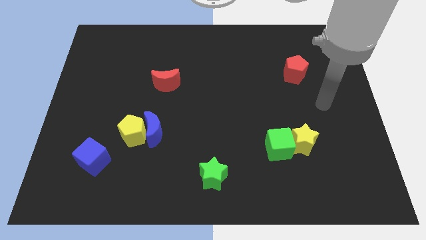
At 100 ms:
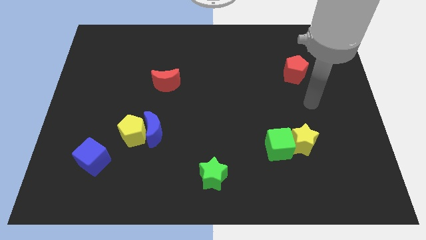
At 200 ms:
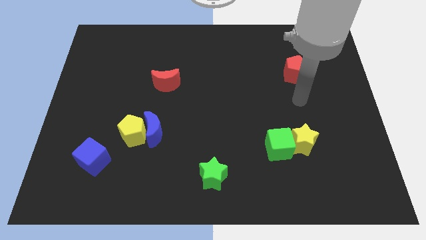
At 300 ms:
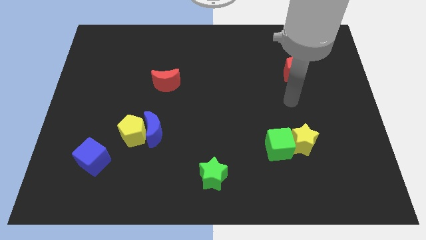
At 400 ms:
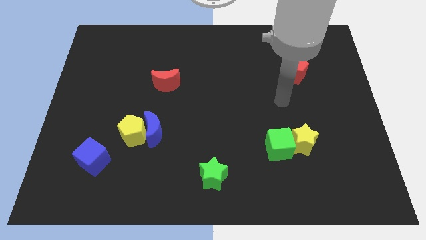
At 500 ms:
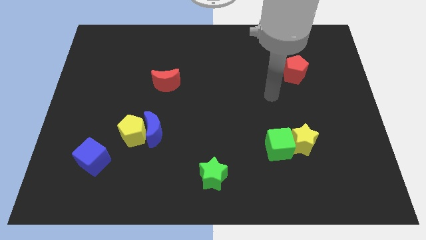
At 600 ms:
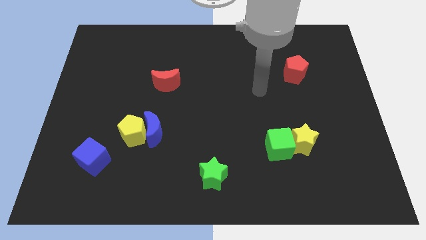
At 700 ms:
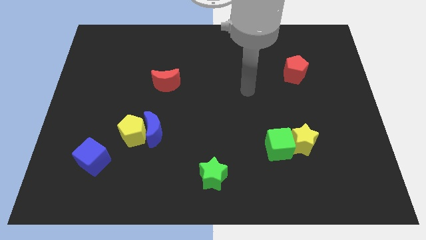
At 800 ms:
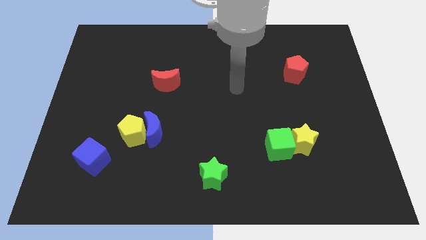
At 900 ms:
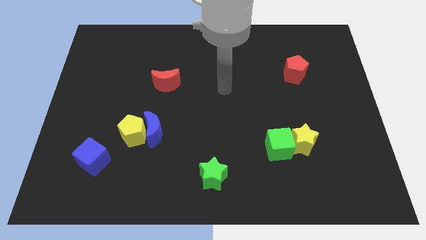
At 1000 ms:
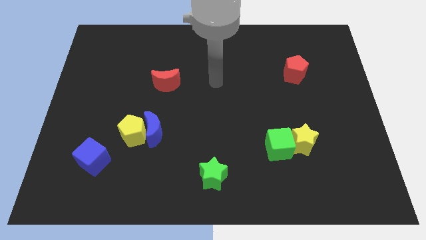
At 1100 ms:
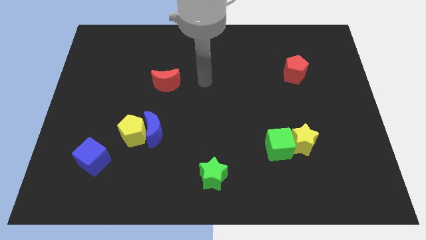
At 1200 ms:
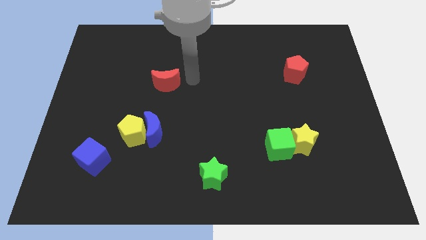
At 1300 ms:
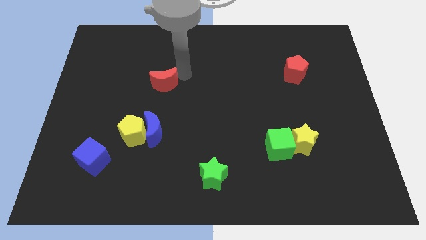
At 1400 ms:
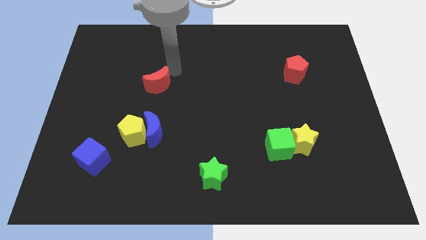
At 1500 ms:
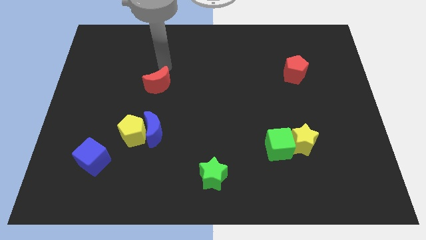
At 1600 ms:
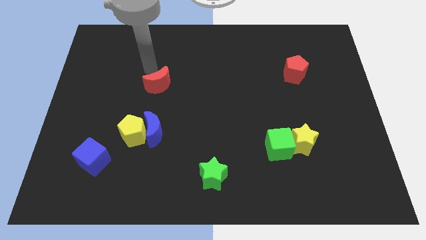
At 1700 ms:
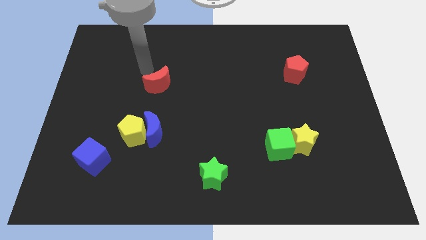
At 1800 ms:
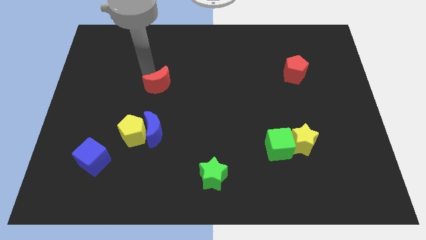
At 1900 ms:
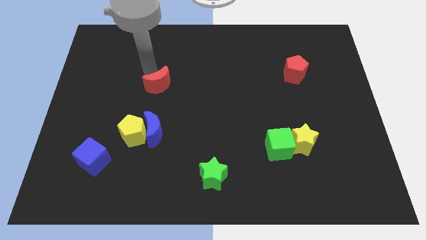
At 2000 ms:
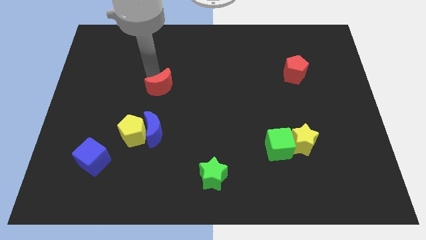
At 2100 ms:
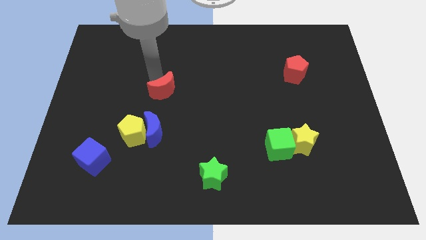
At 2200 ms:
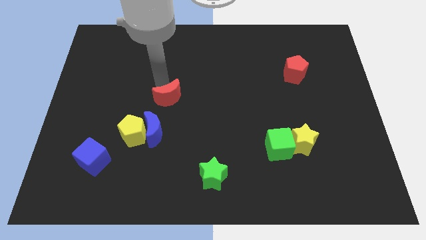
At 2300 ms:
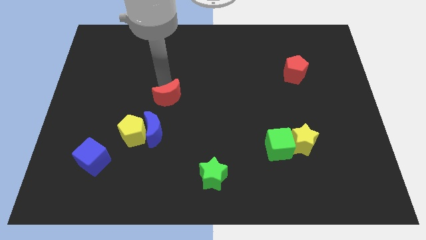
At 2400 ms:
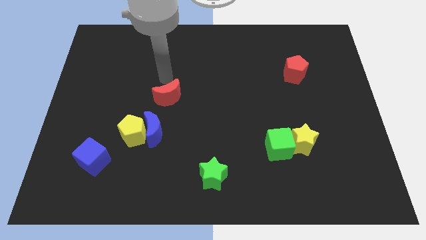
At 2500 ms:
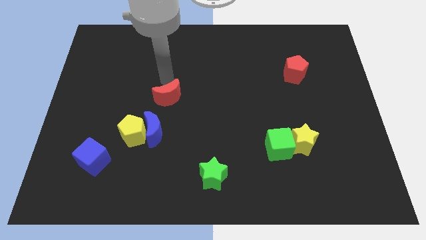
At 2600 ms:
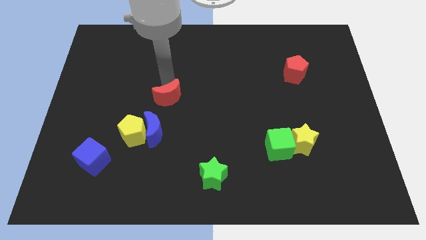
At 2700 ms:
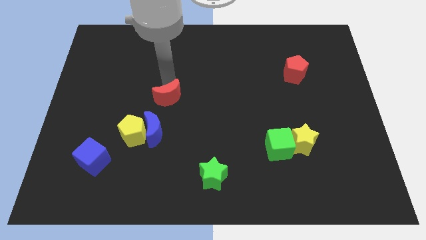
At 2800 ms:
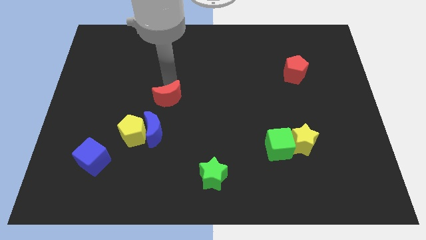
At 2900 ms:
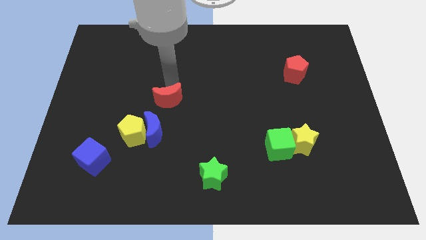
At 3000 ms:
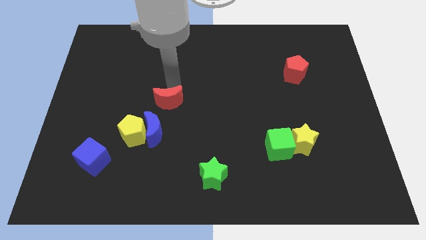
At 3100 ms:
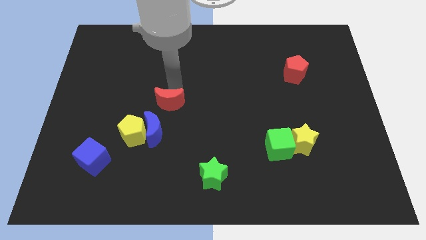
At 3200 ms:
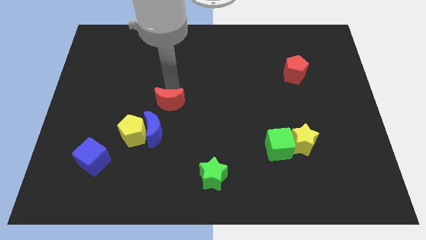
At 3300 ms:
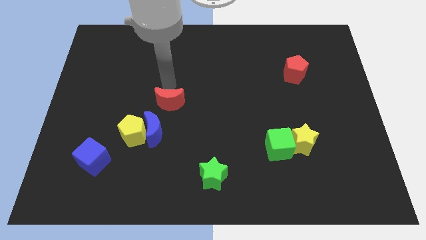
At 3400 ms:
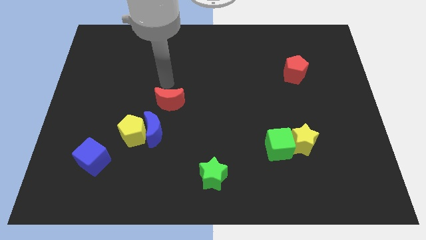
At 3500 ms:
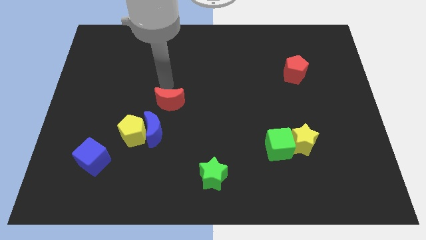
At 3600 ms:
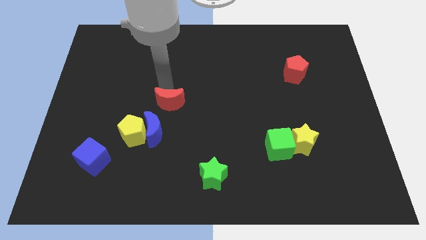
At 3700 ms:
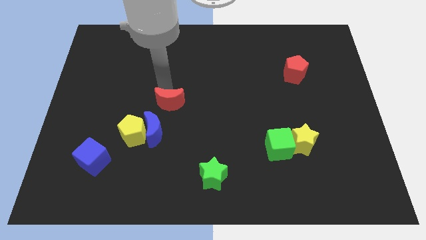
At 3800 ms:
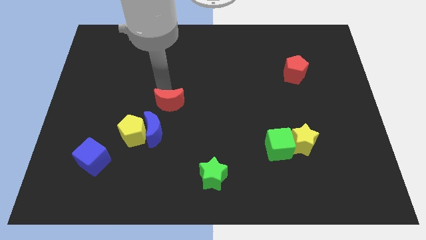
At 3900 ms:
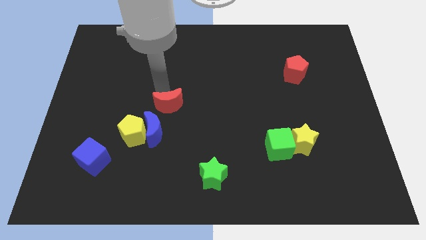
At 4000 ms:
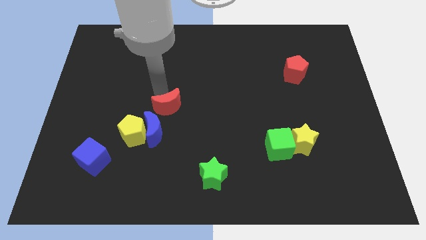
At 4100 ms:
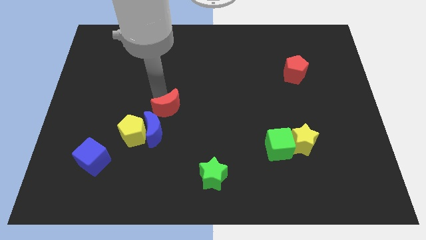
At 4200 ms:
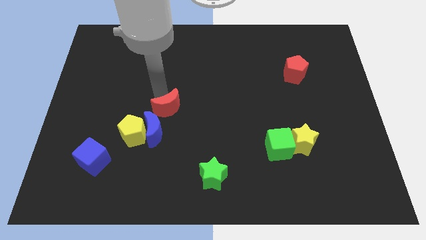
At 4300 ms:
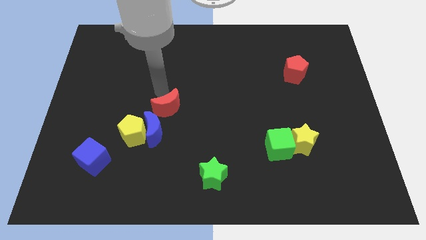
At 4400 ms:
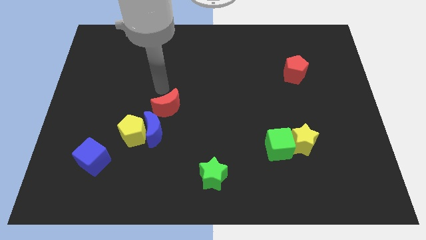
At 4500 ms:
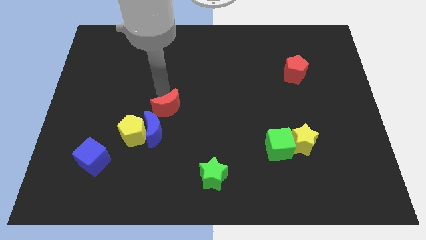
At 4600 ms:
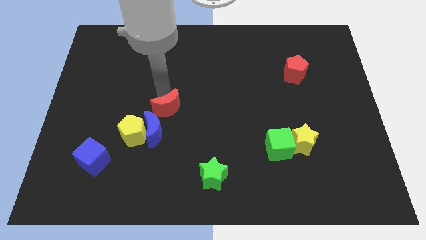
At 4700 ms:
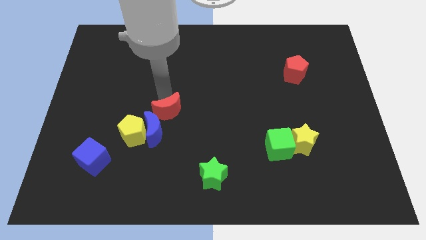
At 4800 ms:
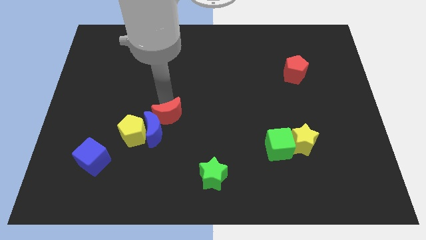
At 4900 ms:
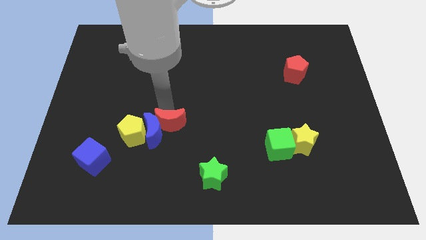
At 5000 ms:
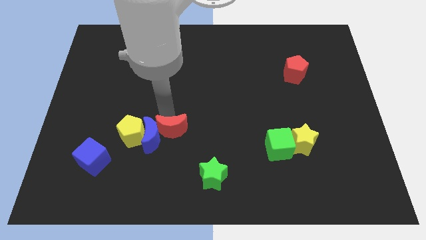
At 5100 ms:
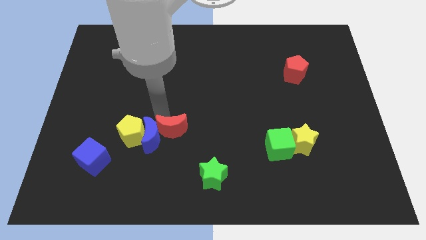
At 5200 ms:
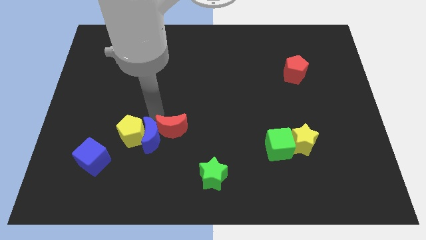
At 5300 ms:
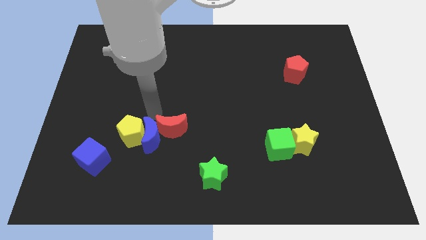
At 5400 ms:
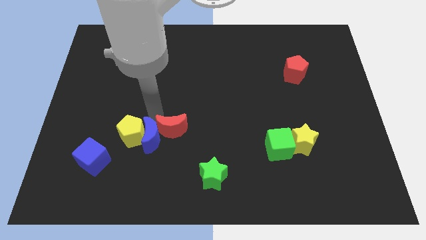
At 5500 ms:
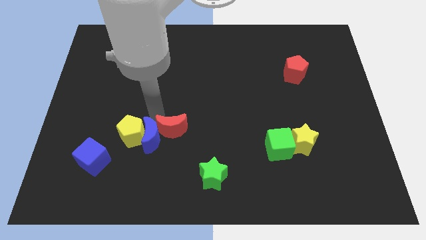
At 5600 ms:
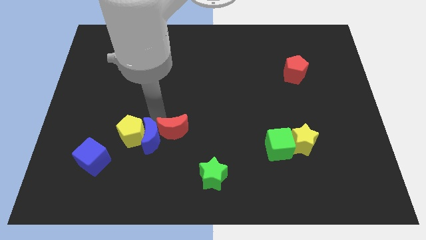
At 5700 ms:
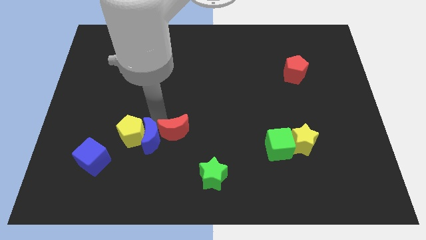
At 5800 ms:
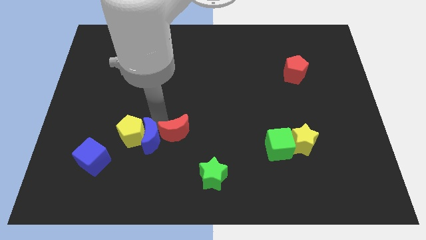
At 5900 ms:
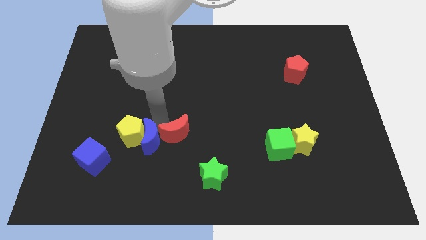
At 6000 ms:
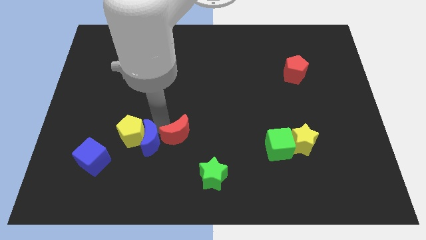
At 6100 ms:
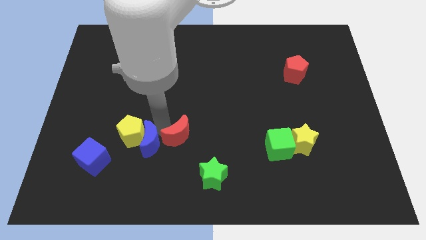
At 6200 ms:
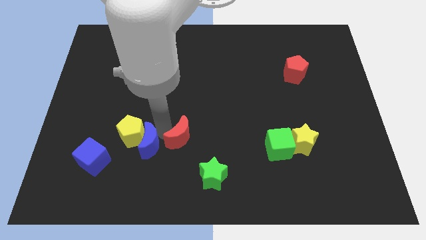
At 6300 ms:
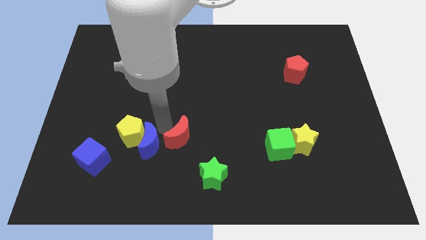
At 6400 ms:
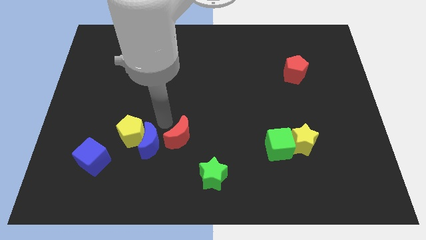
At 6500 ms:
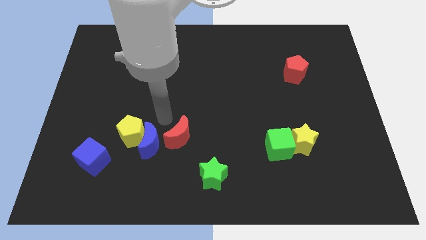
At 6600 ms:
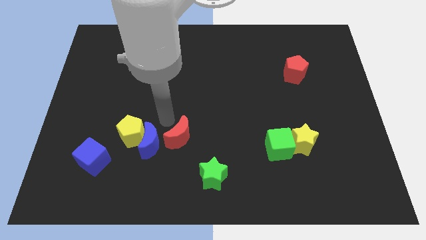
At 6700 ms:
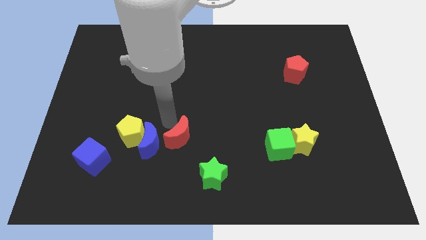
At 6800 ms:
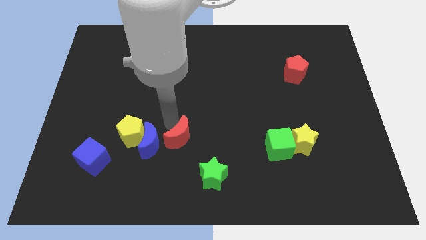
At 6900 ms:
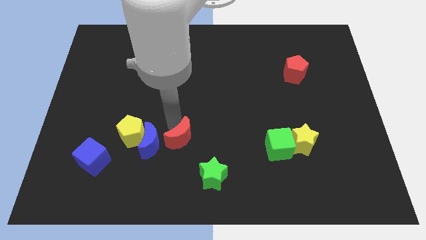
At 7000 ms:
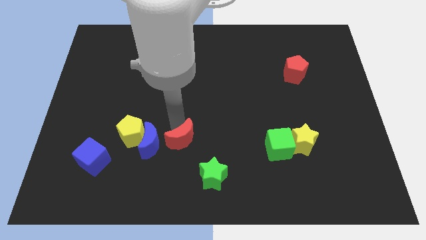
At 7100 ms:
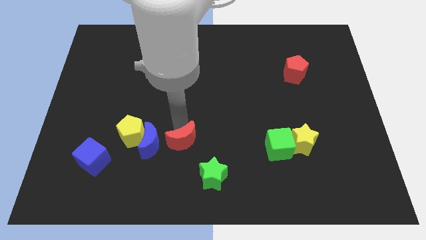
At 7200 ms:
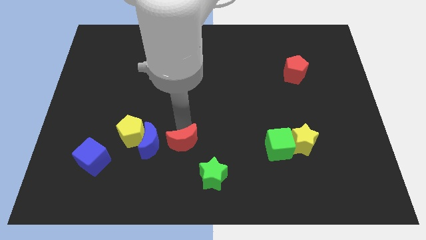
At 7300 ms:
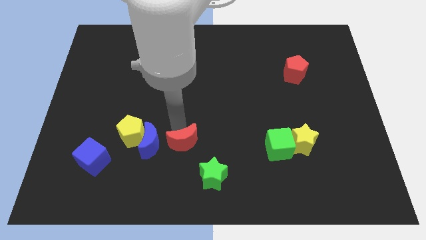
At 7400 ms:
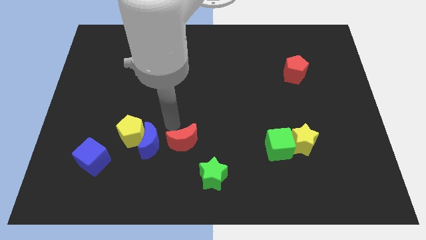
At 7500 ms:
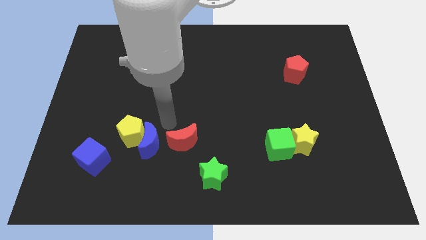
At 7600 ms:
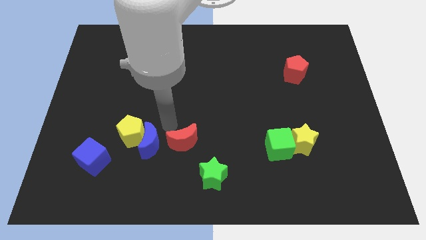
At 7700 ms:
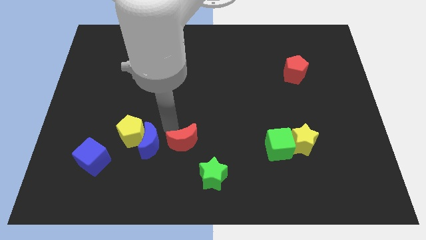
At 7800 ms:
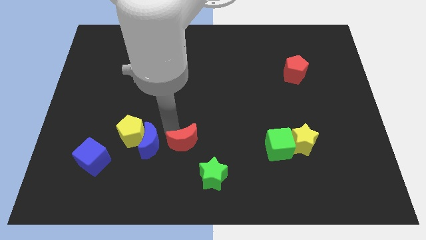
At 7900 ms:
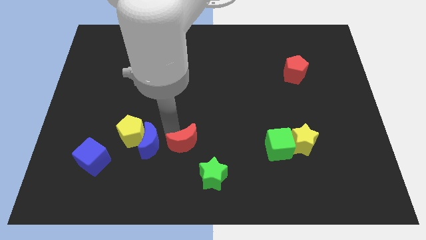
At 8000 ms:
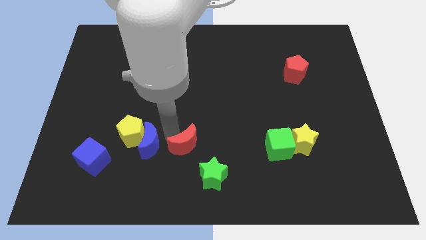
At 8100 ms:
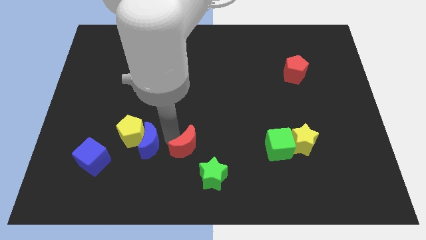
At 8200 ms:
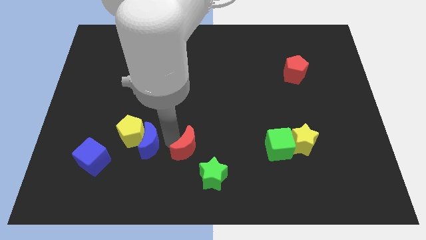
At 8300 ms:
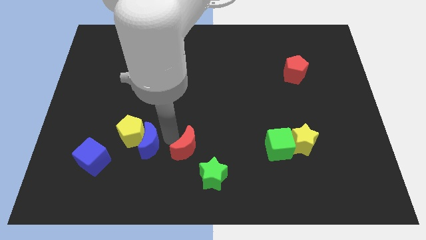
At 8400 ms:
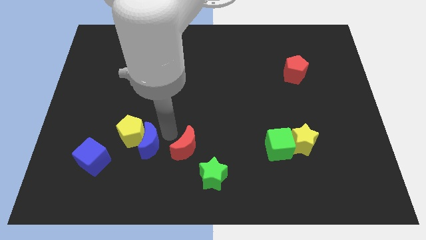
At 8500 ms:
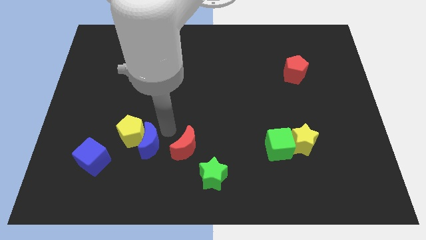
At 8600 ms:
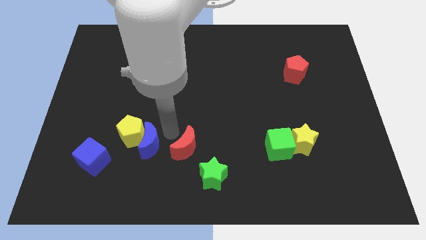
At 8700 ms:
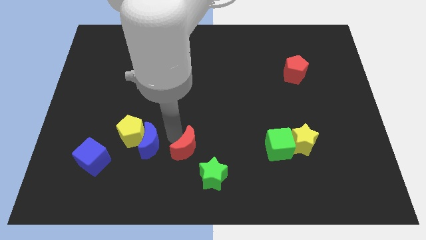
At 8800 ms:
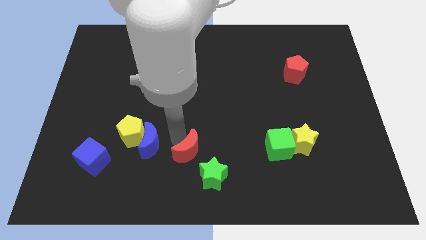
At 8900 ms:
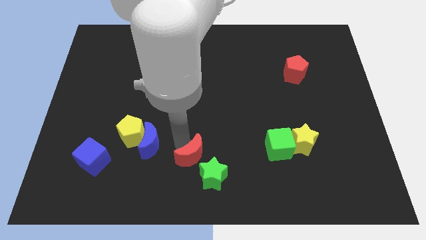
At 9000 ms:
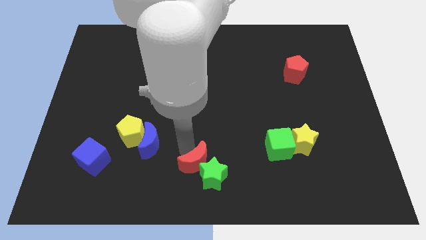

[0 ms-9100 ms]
slide the red moon next to the green star
